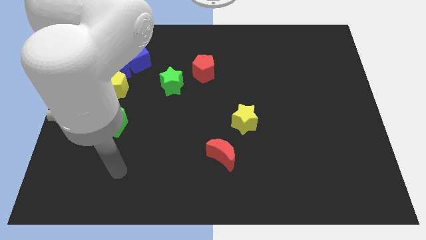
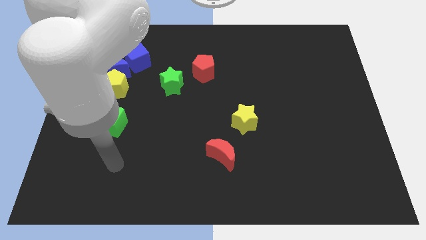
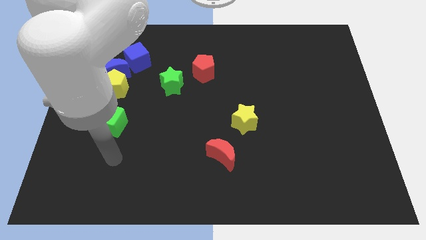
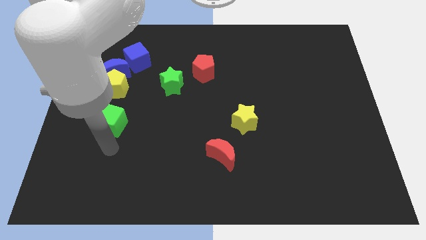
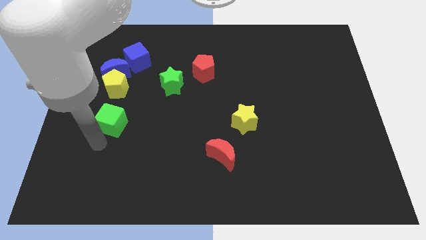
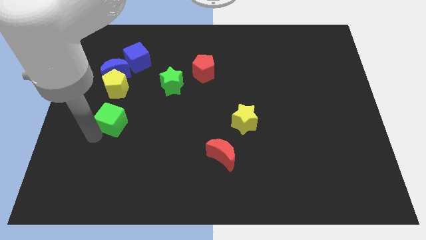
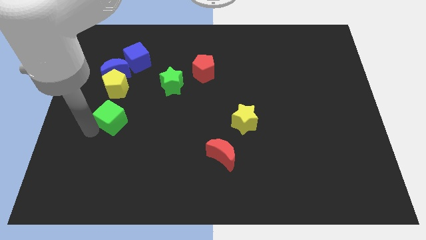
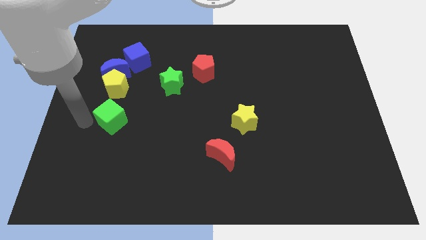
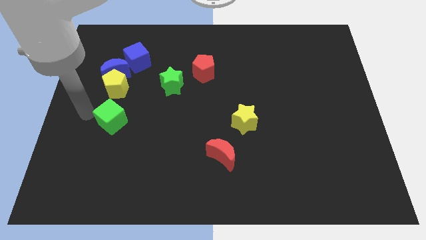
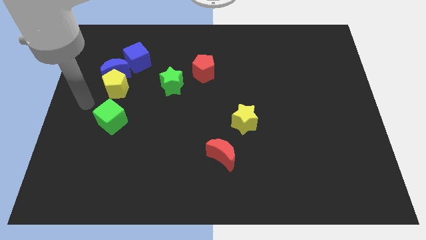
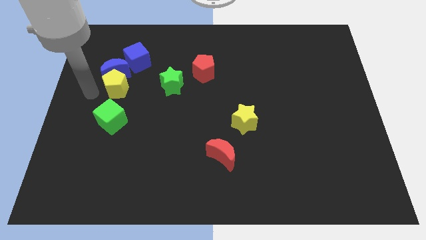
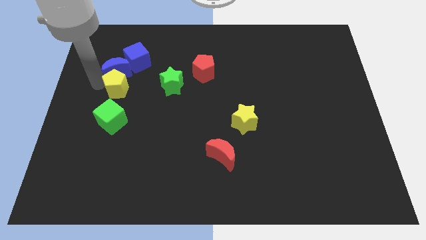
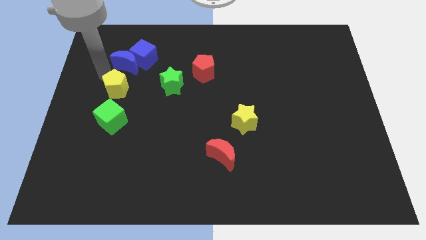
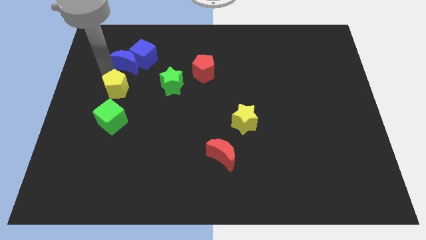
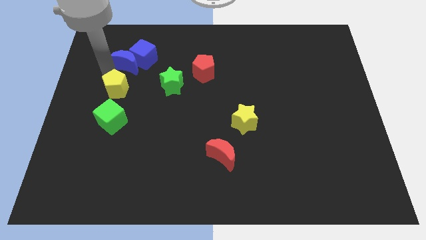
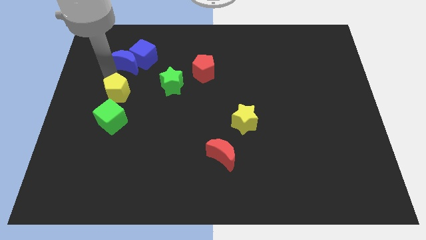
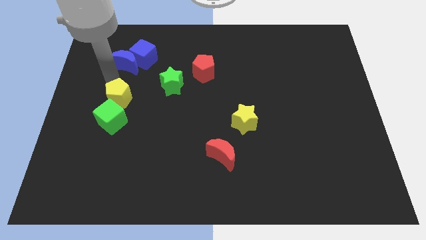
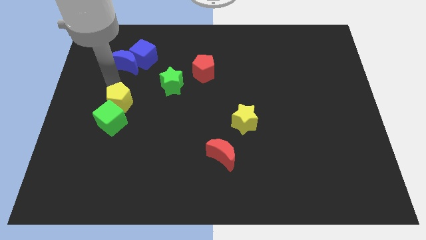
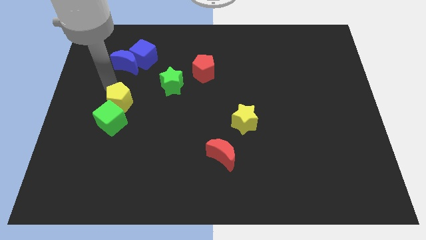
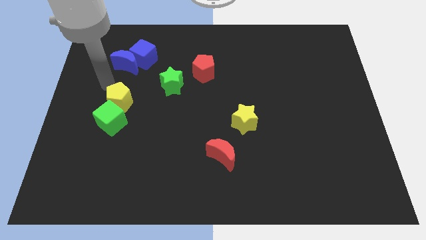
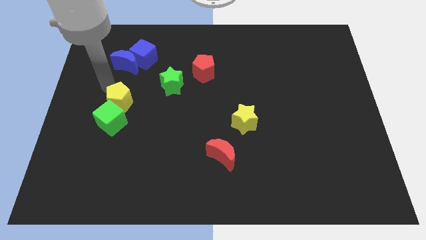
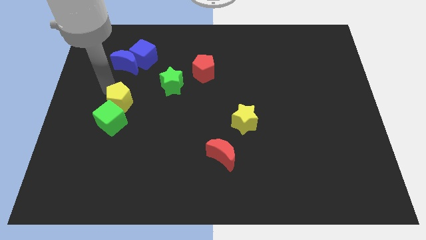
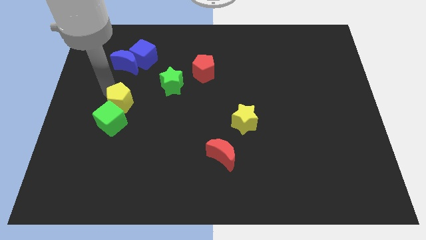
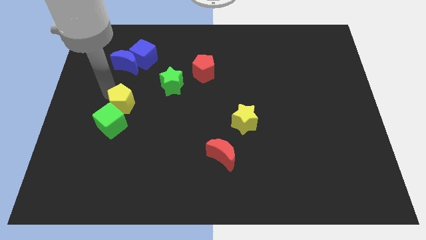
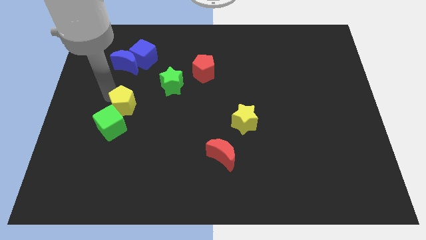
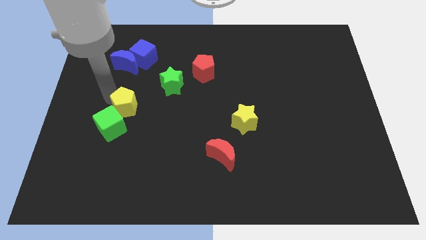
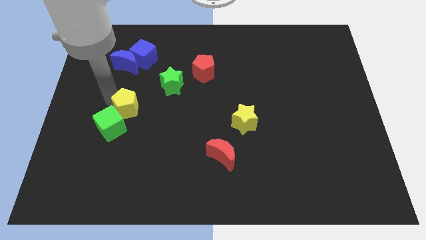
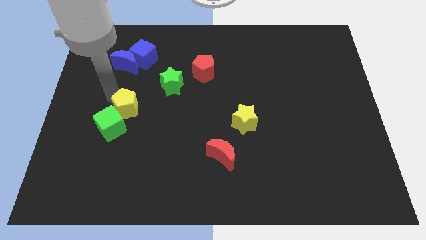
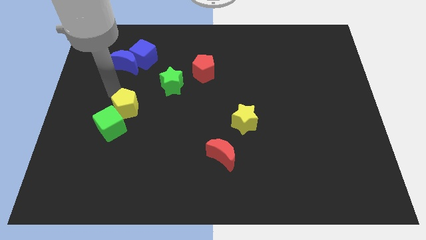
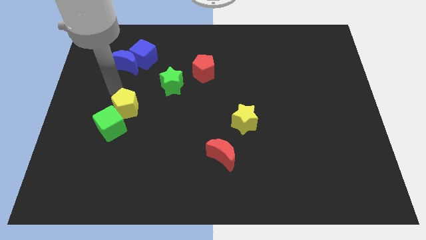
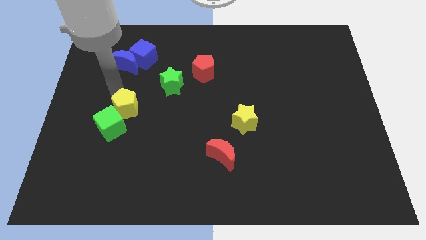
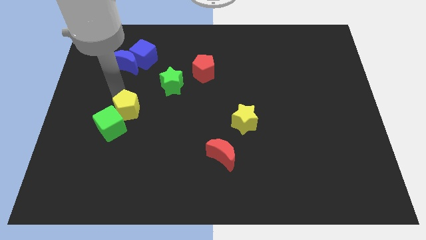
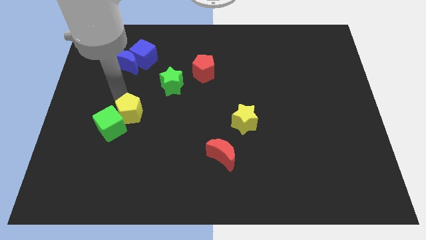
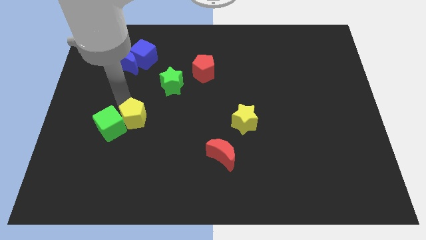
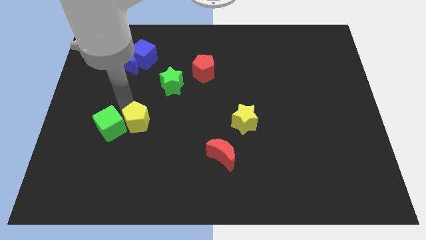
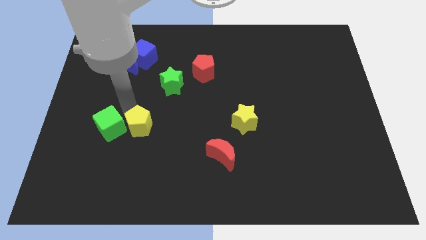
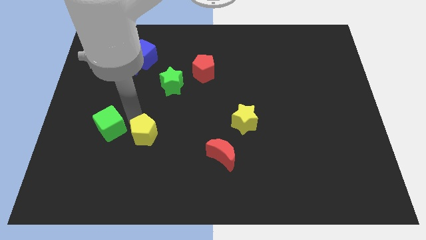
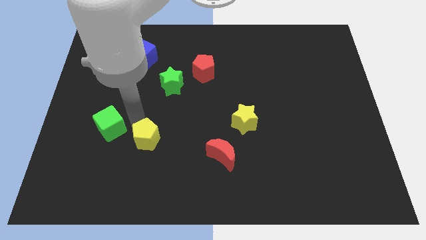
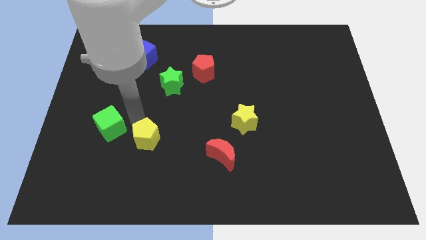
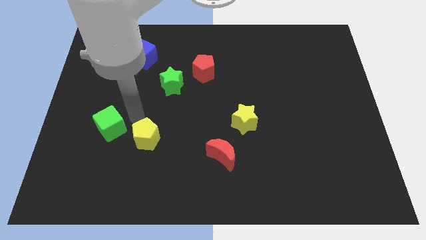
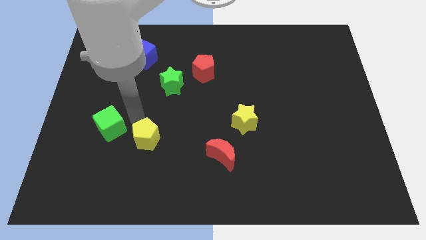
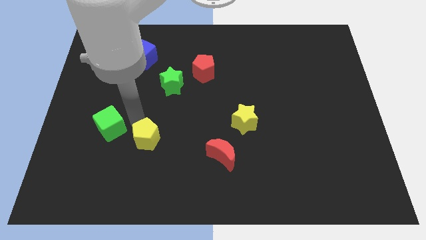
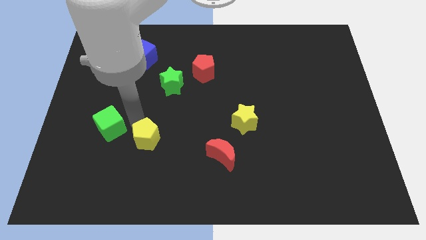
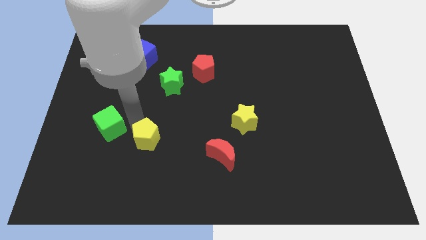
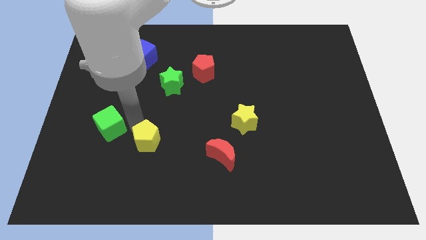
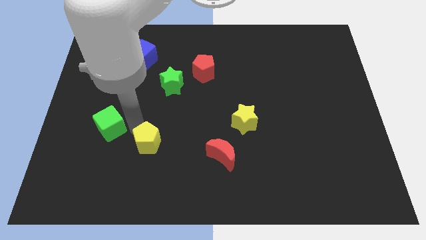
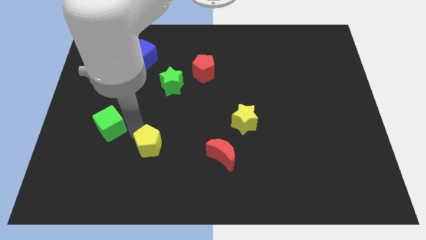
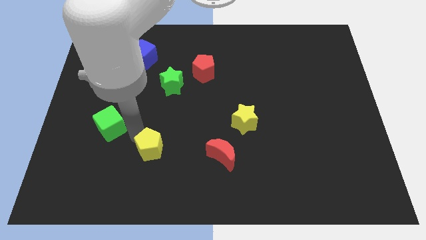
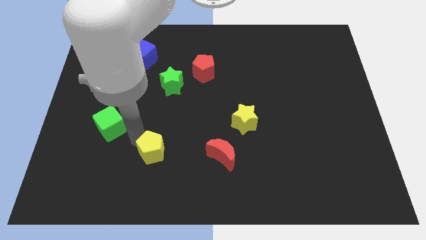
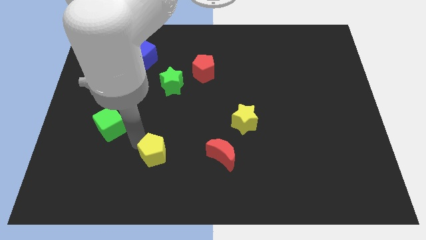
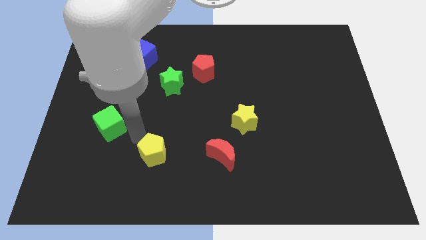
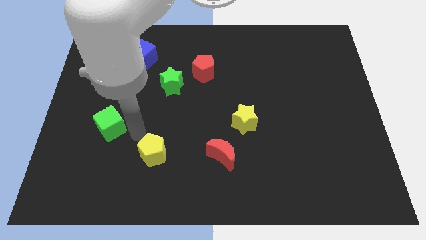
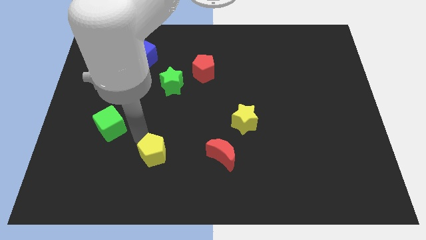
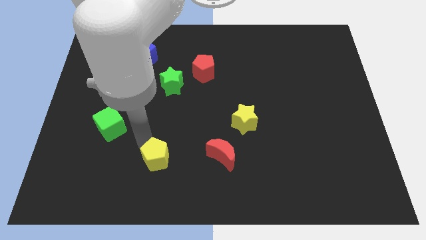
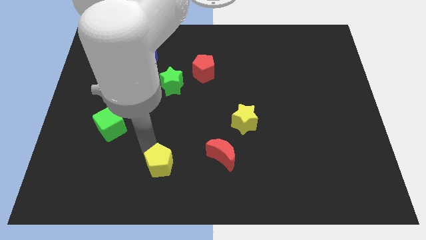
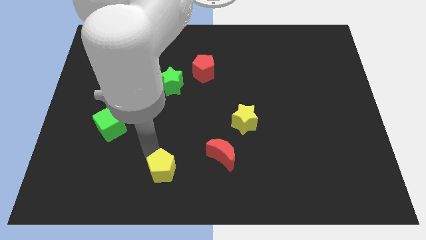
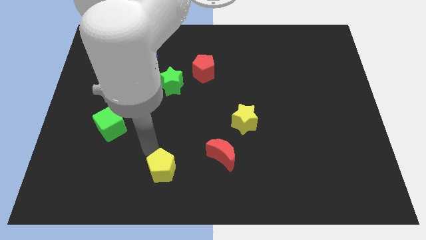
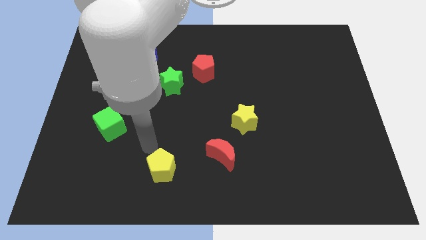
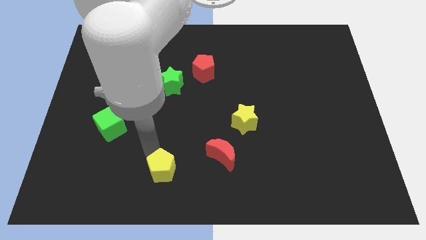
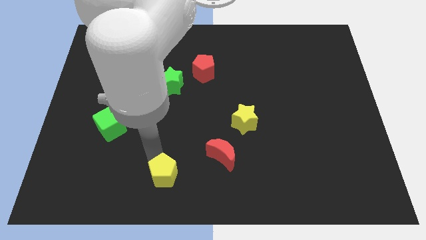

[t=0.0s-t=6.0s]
push the yellow pentagon to the bottom side

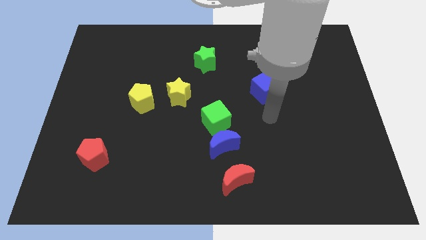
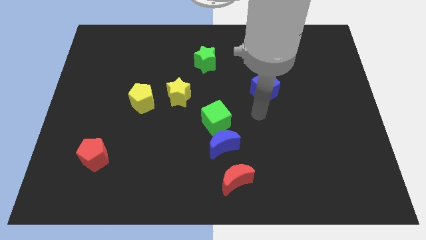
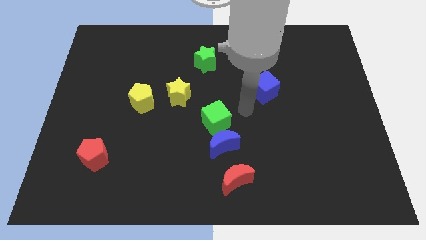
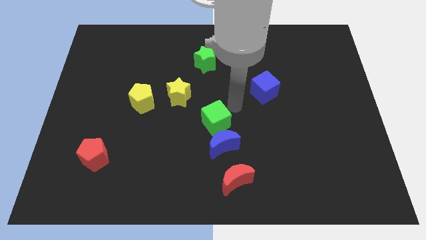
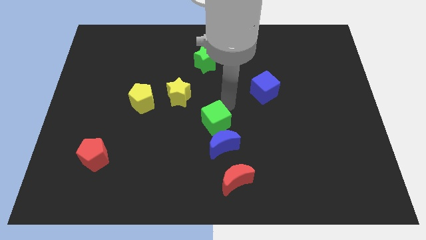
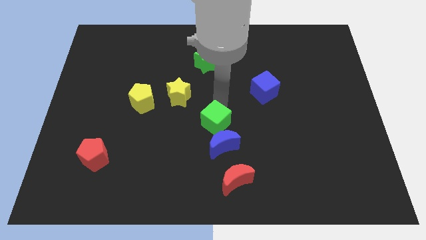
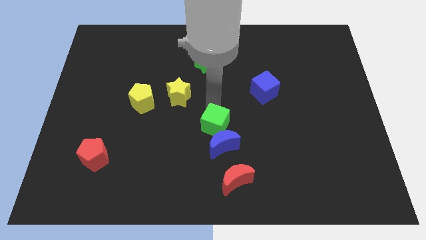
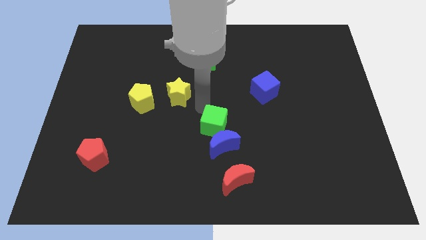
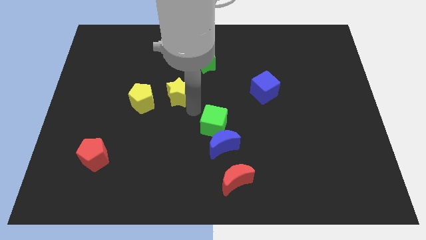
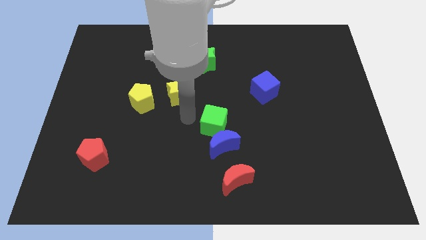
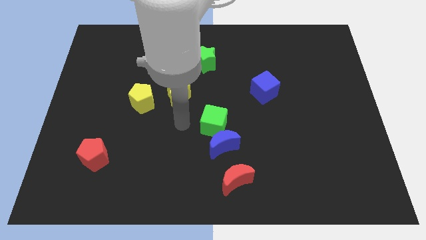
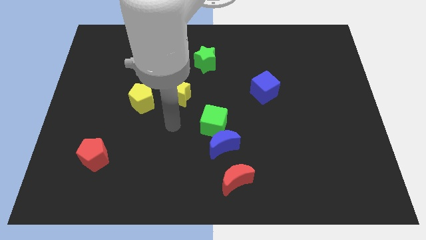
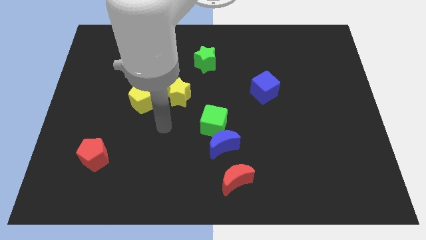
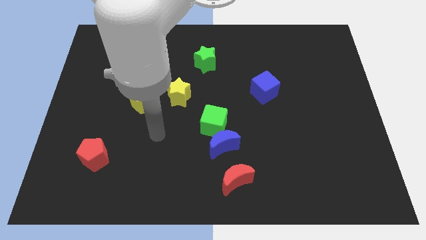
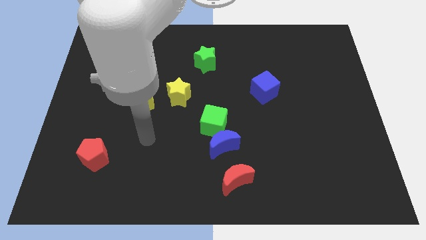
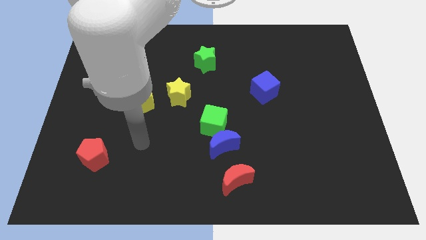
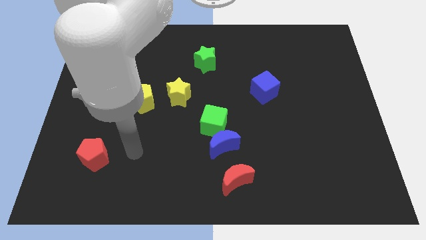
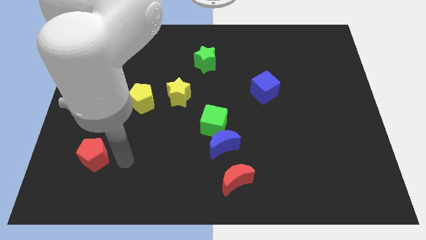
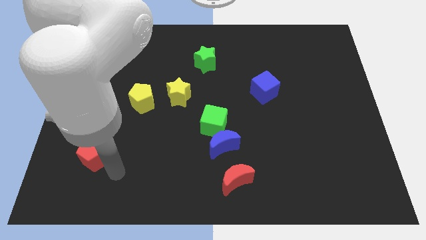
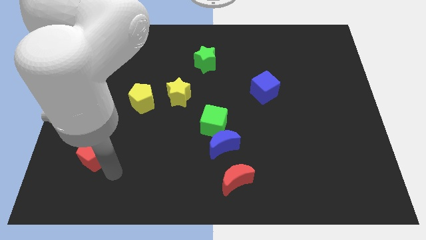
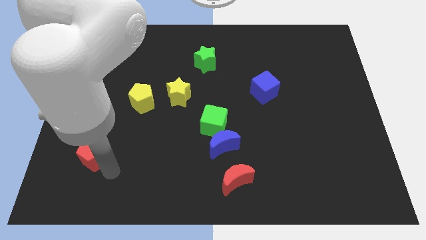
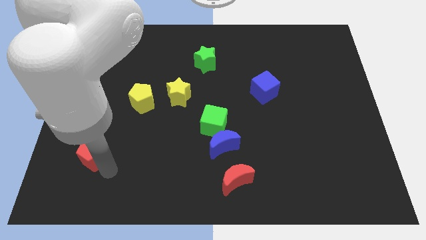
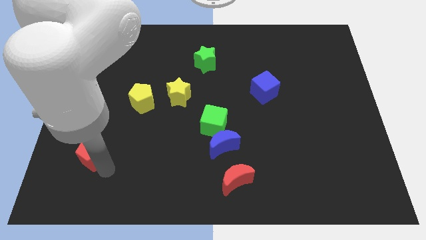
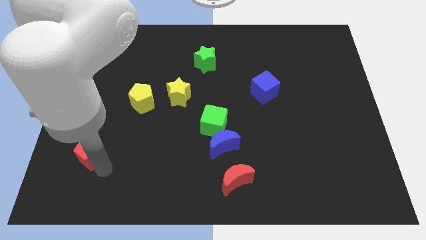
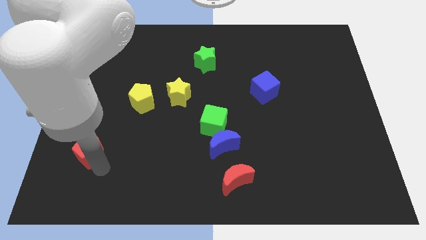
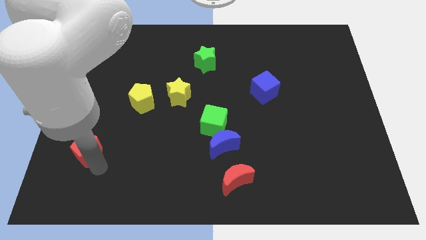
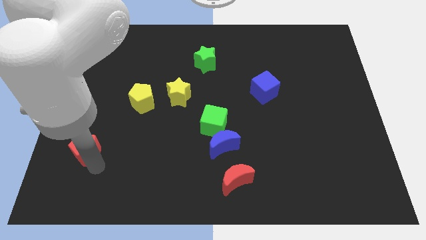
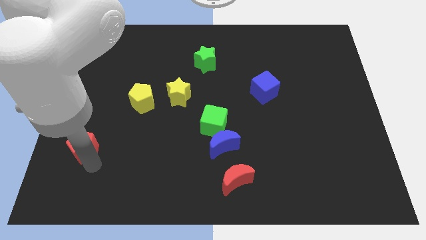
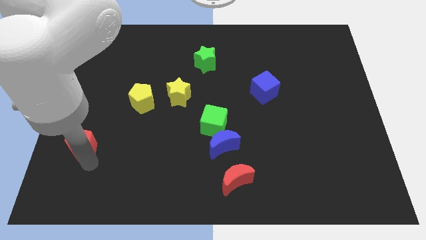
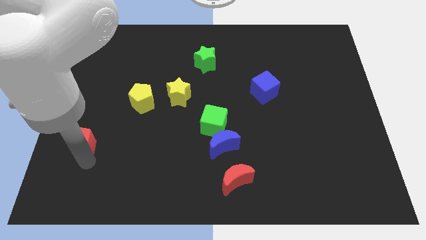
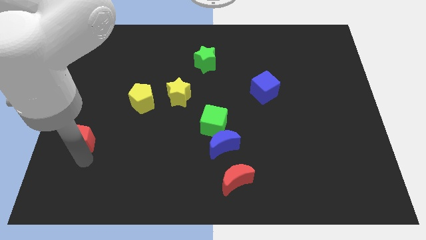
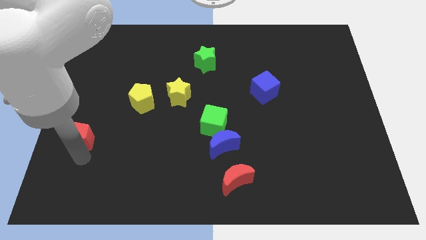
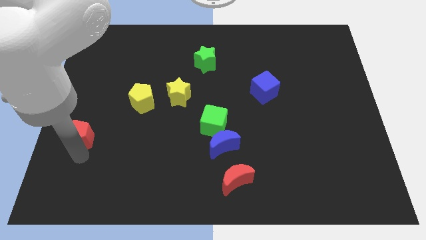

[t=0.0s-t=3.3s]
push the red pentagon to the center left
